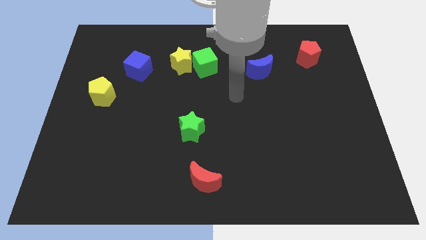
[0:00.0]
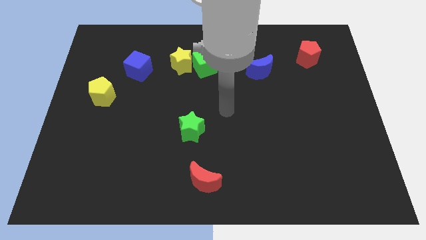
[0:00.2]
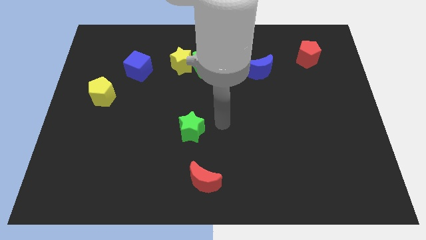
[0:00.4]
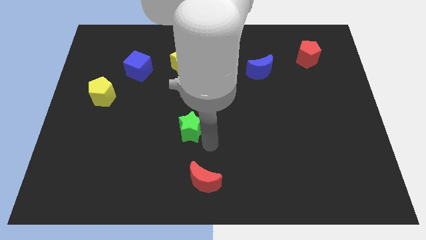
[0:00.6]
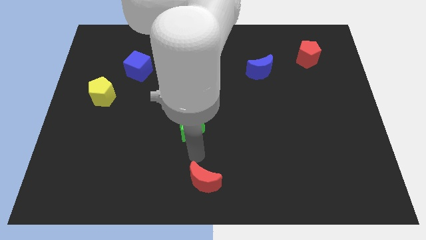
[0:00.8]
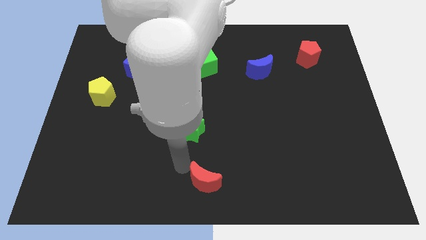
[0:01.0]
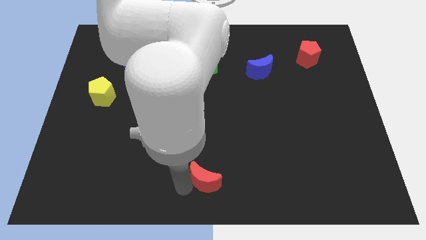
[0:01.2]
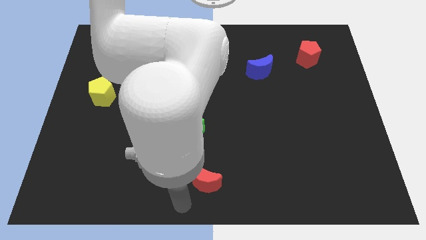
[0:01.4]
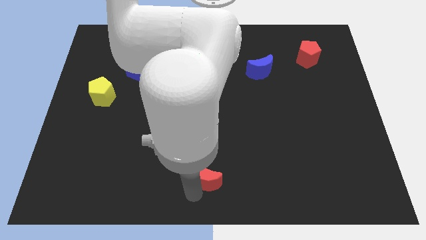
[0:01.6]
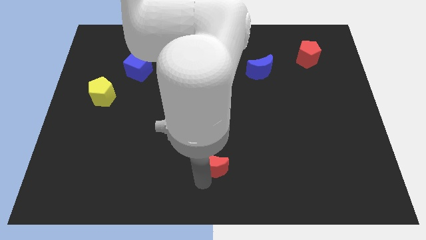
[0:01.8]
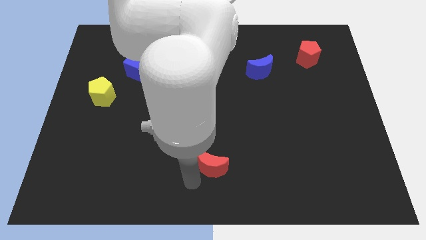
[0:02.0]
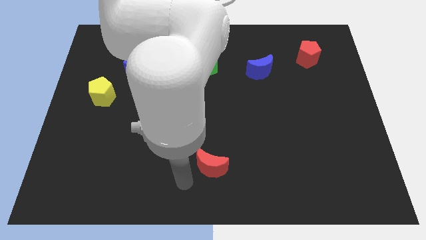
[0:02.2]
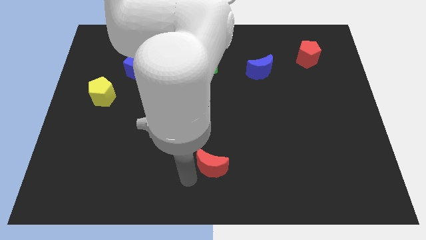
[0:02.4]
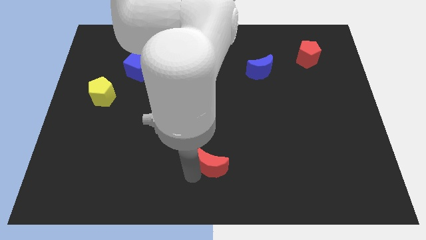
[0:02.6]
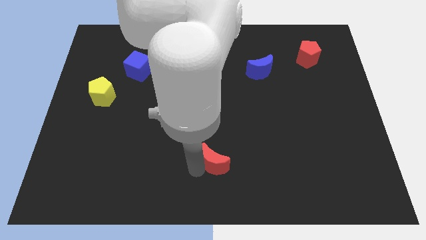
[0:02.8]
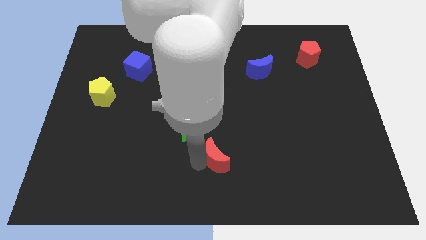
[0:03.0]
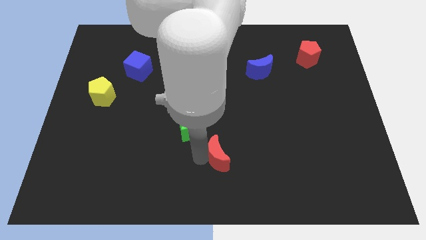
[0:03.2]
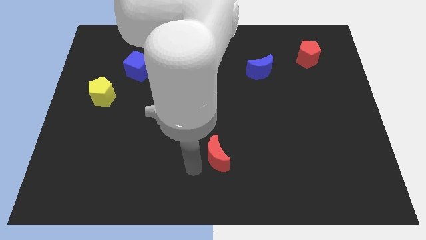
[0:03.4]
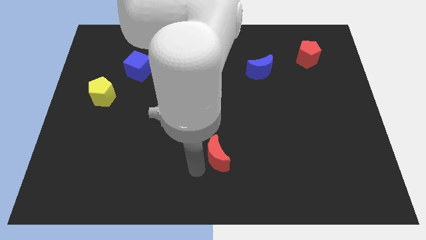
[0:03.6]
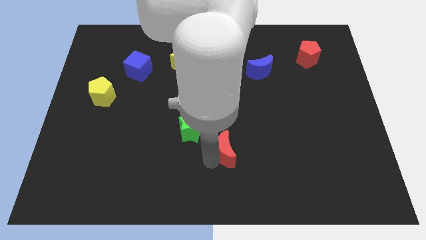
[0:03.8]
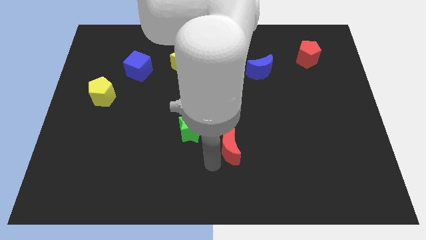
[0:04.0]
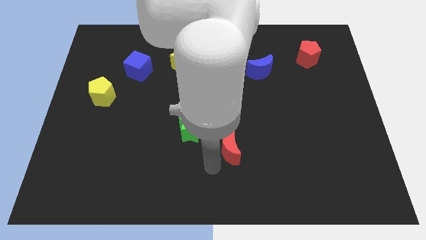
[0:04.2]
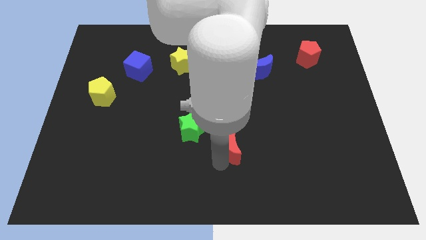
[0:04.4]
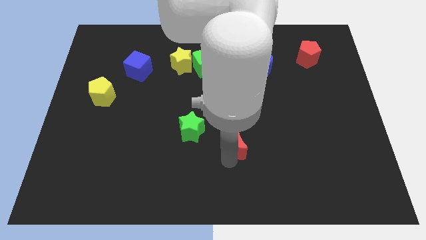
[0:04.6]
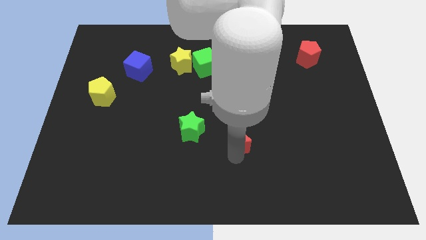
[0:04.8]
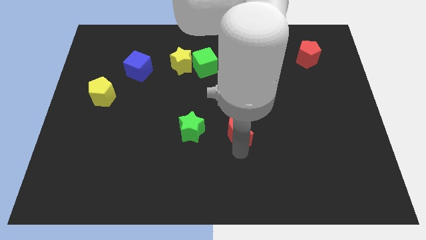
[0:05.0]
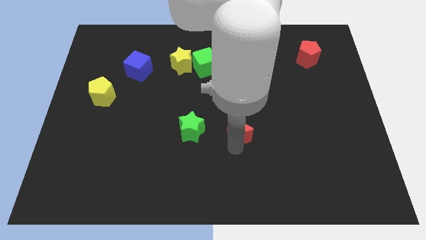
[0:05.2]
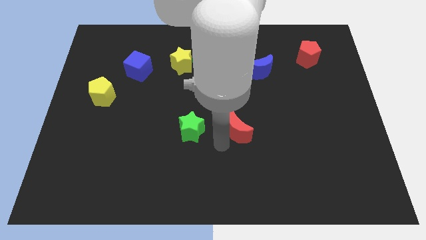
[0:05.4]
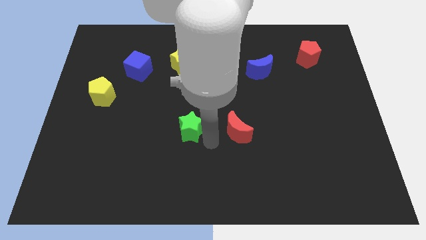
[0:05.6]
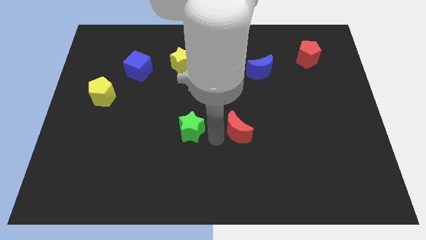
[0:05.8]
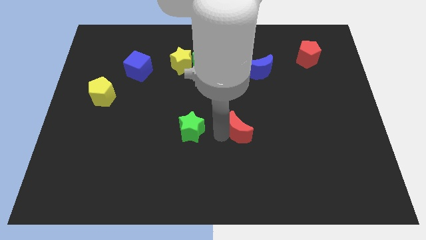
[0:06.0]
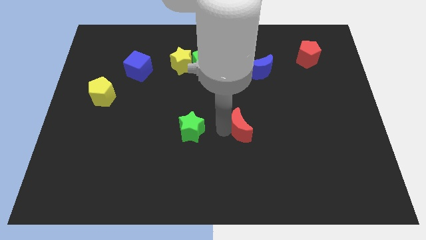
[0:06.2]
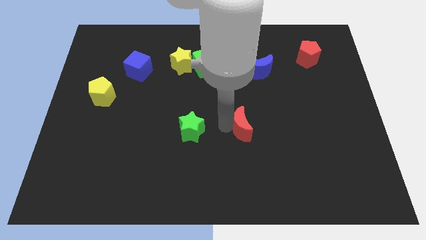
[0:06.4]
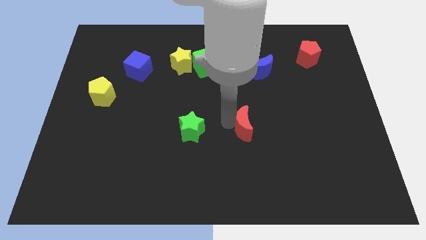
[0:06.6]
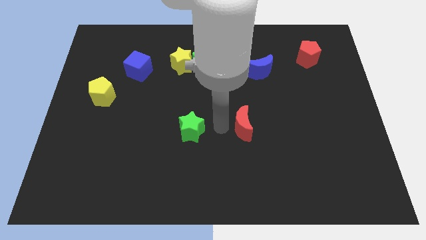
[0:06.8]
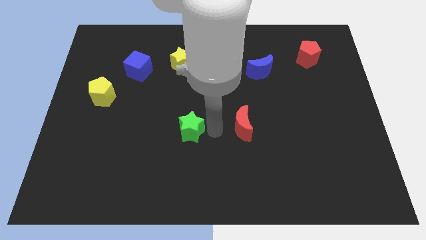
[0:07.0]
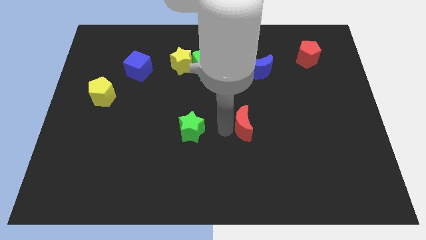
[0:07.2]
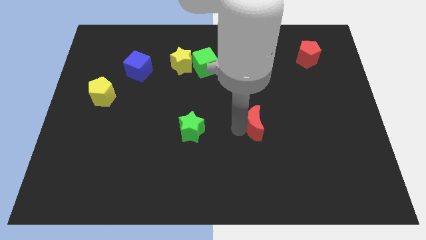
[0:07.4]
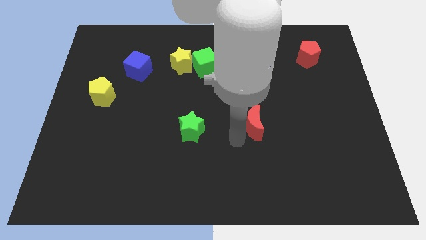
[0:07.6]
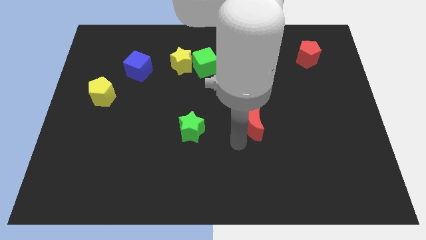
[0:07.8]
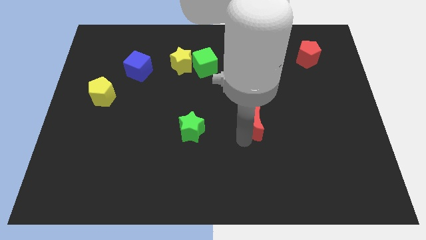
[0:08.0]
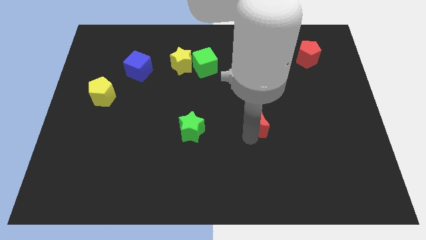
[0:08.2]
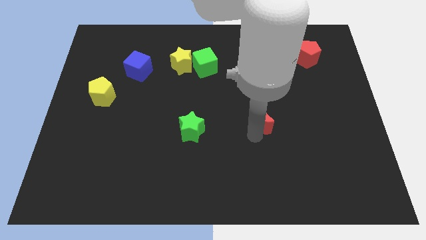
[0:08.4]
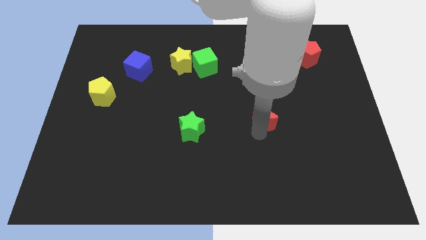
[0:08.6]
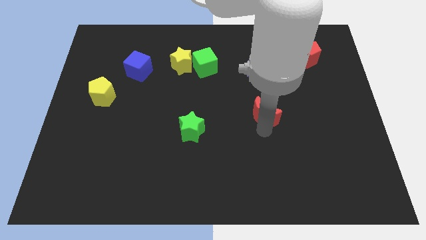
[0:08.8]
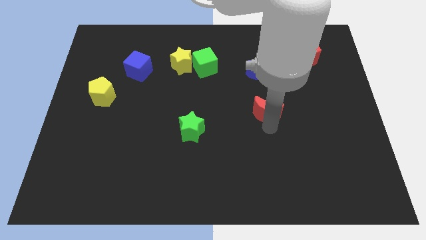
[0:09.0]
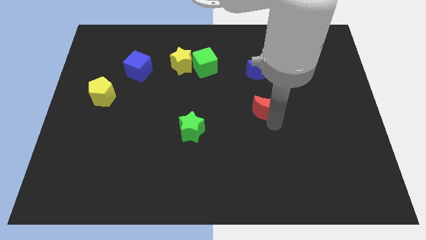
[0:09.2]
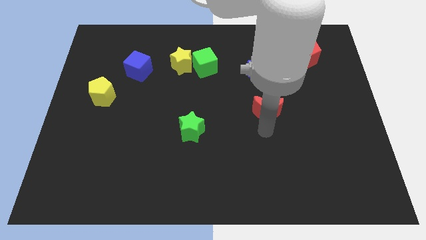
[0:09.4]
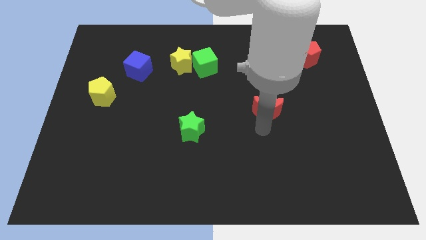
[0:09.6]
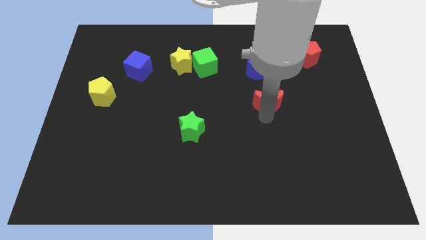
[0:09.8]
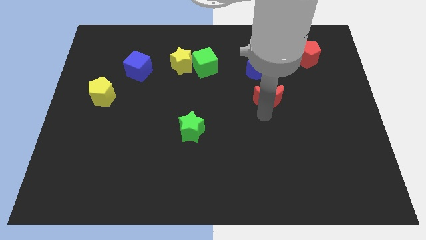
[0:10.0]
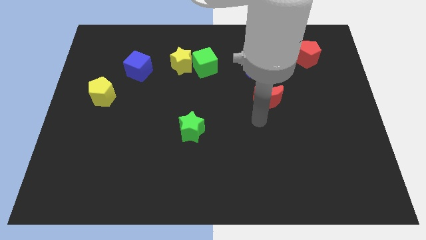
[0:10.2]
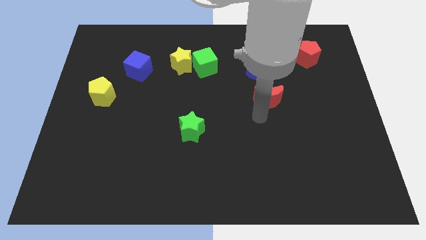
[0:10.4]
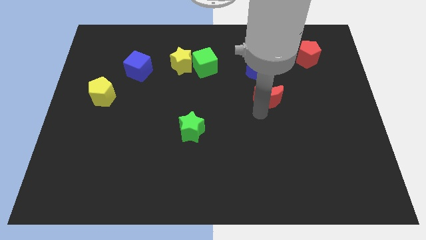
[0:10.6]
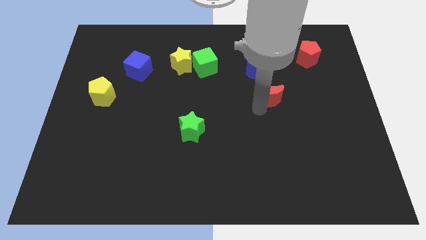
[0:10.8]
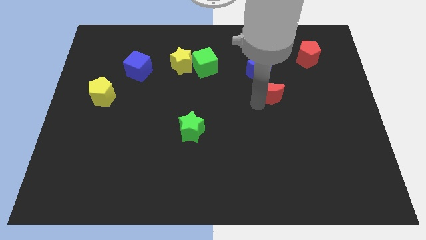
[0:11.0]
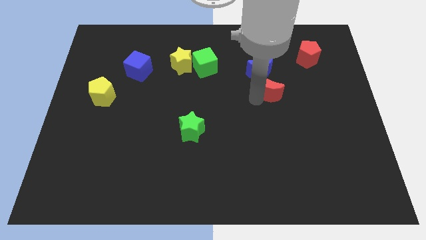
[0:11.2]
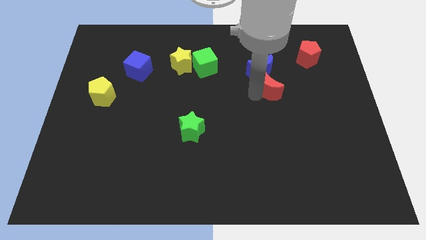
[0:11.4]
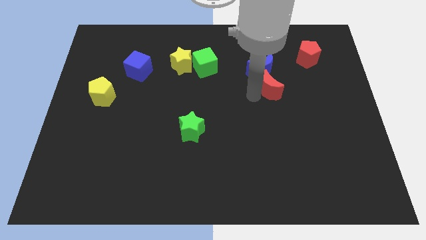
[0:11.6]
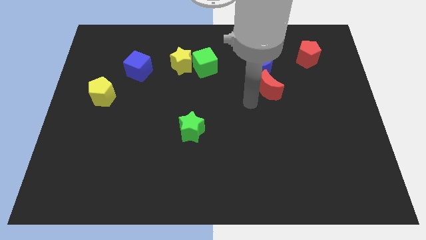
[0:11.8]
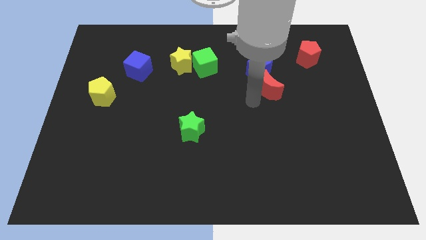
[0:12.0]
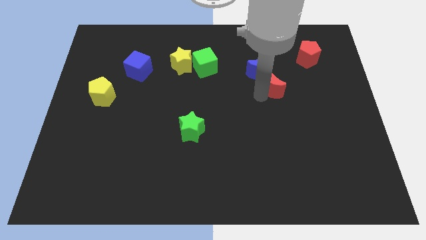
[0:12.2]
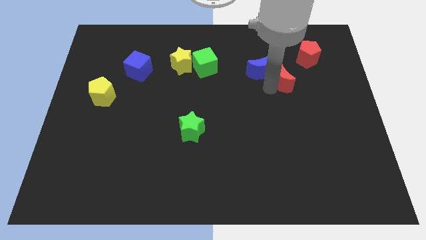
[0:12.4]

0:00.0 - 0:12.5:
slide the red moon to the right of the blue moon

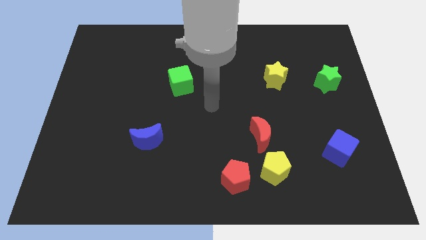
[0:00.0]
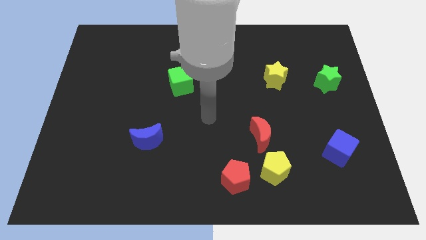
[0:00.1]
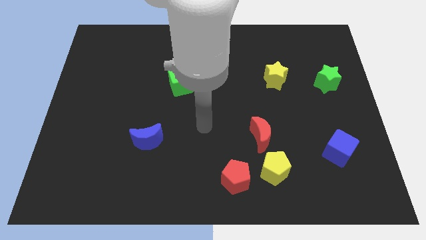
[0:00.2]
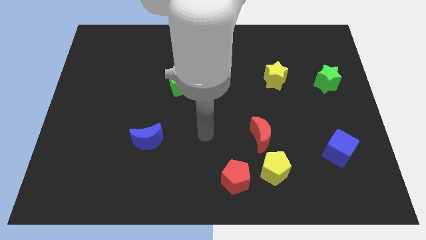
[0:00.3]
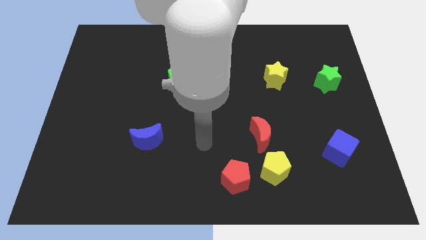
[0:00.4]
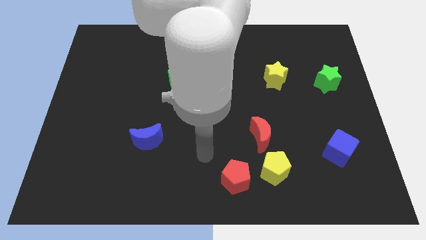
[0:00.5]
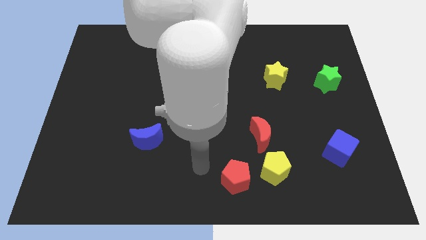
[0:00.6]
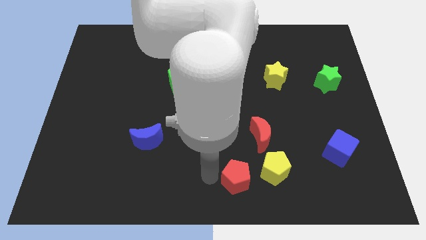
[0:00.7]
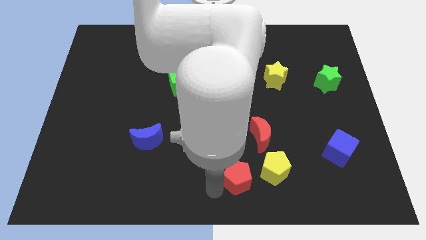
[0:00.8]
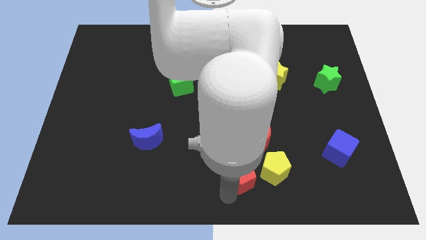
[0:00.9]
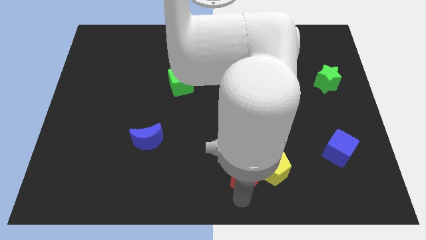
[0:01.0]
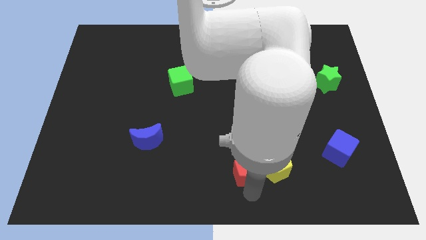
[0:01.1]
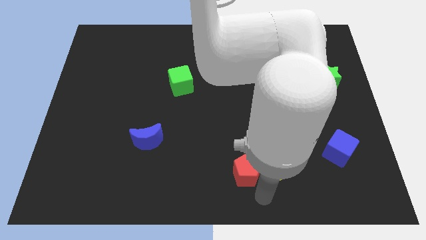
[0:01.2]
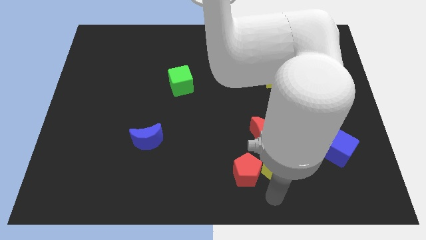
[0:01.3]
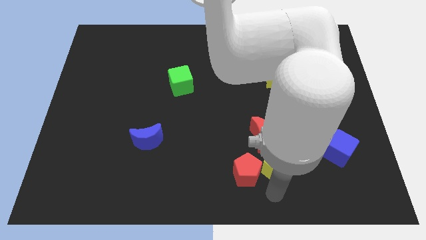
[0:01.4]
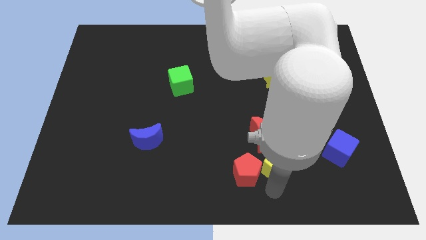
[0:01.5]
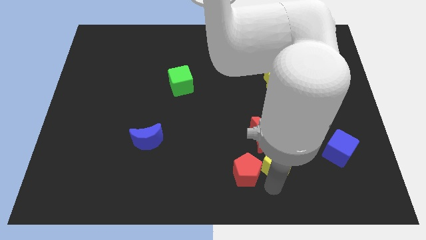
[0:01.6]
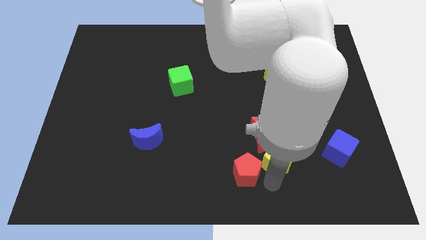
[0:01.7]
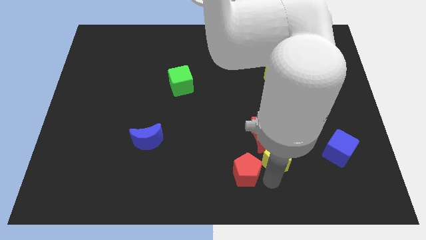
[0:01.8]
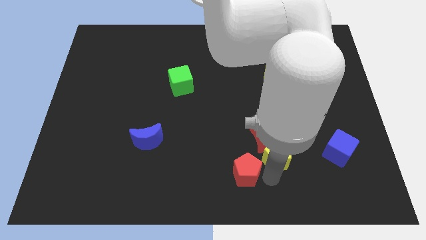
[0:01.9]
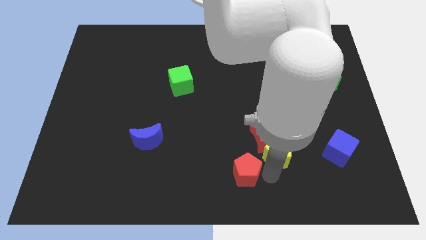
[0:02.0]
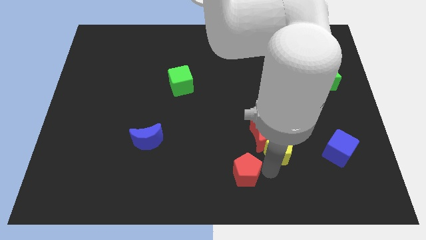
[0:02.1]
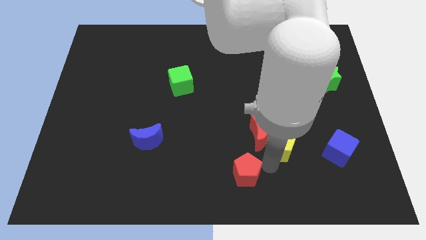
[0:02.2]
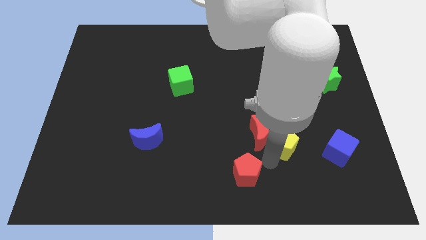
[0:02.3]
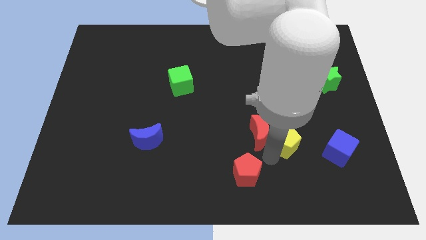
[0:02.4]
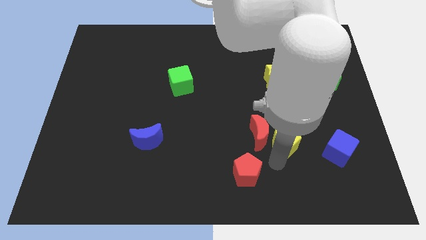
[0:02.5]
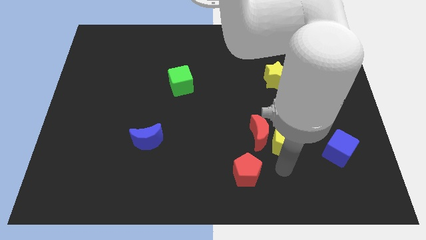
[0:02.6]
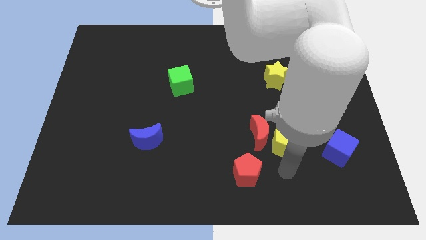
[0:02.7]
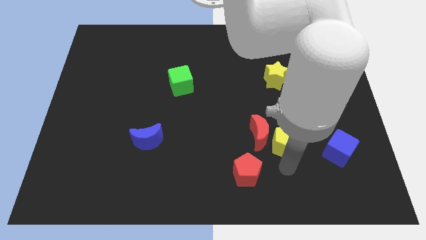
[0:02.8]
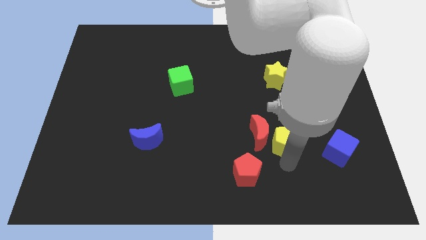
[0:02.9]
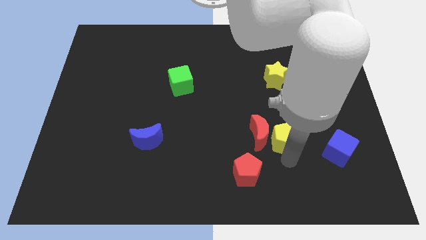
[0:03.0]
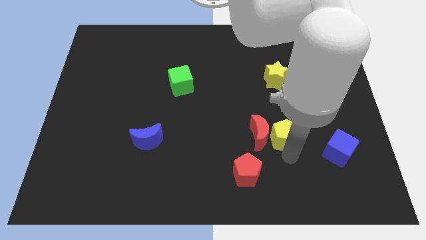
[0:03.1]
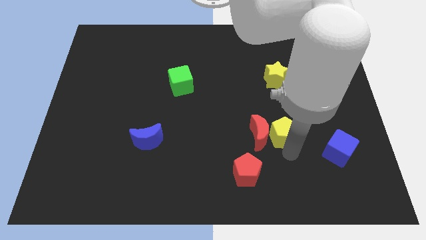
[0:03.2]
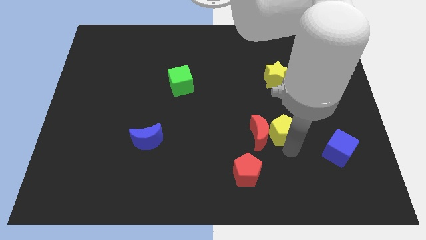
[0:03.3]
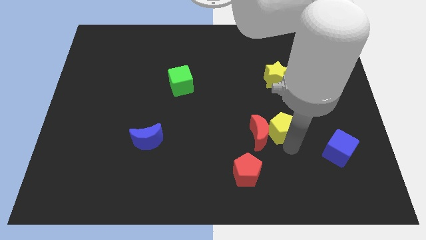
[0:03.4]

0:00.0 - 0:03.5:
push the yellow pentagon to the bottom of the yellow star
